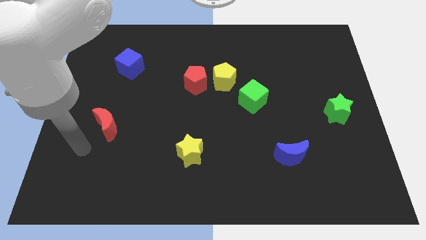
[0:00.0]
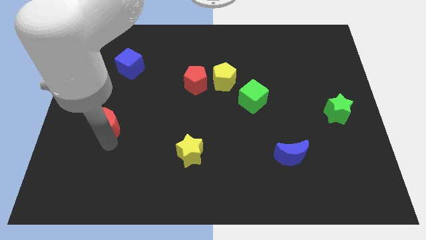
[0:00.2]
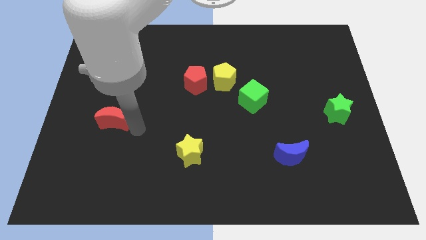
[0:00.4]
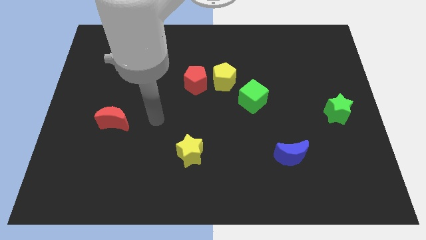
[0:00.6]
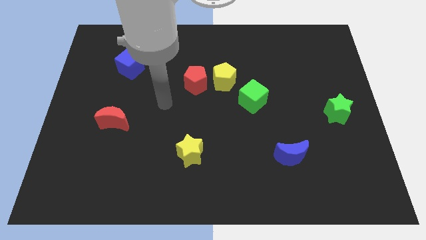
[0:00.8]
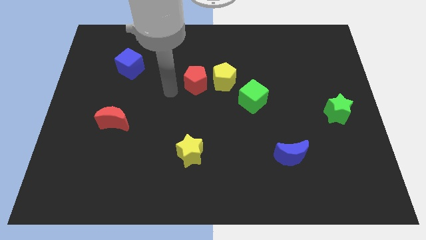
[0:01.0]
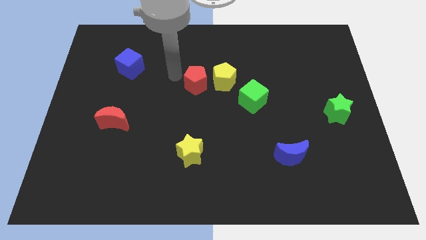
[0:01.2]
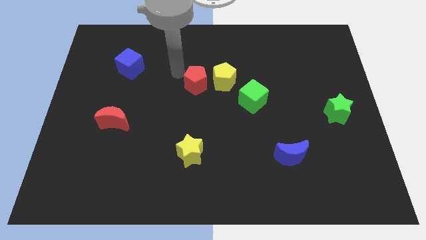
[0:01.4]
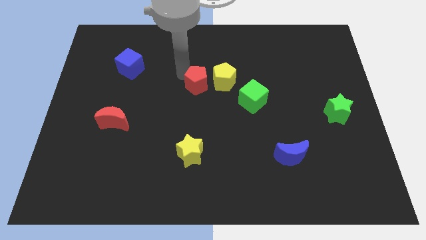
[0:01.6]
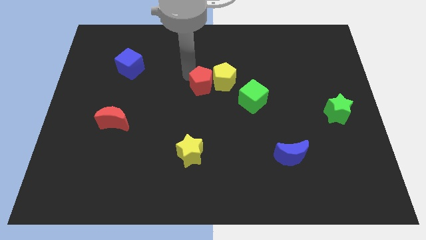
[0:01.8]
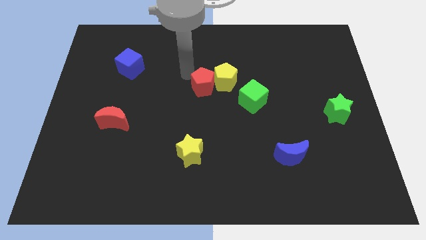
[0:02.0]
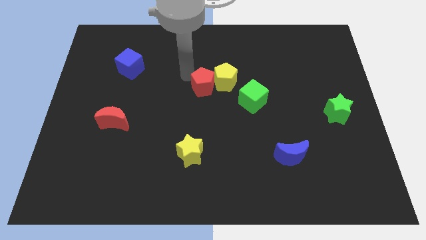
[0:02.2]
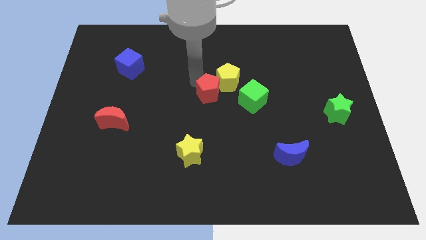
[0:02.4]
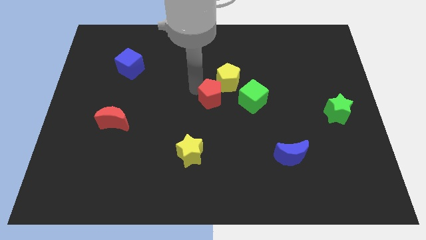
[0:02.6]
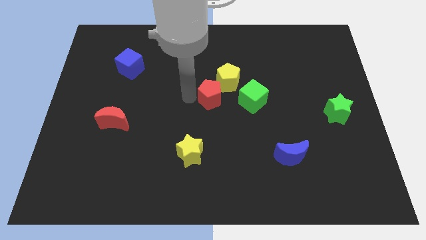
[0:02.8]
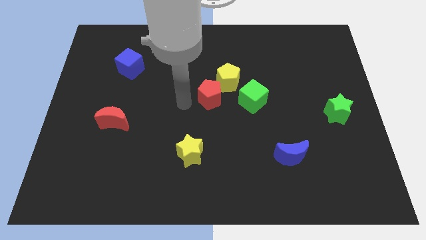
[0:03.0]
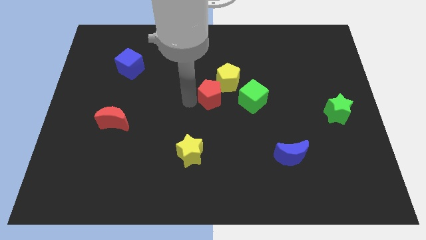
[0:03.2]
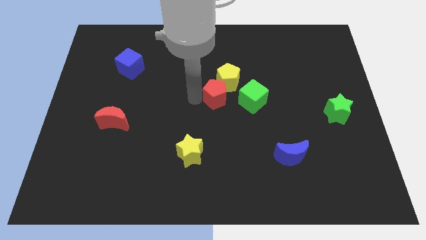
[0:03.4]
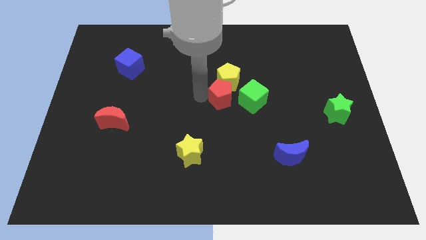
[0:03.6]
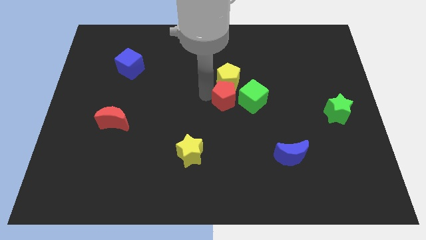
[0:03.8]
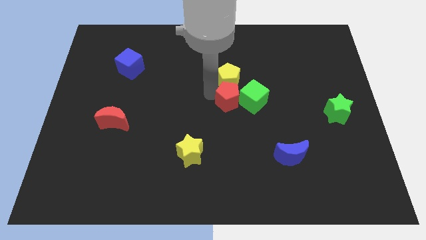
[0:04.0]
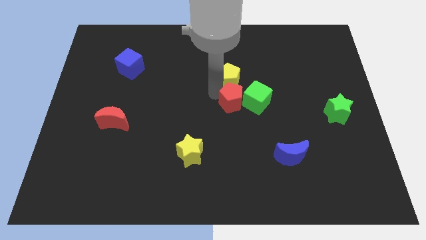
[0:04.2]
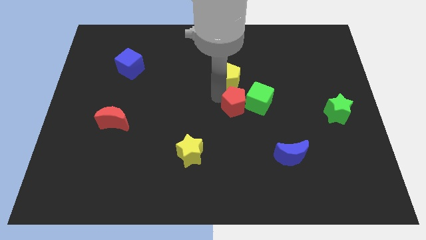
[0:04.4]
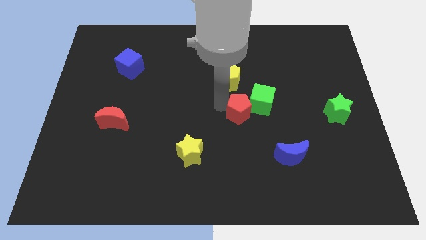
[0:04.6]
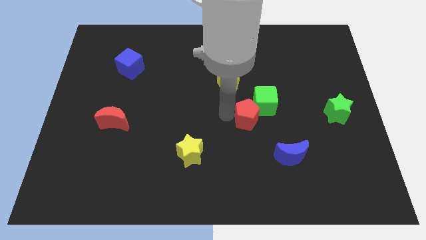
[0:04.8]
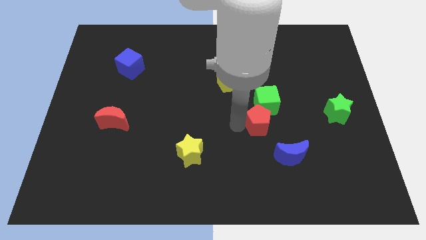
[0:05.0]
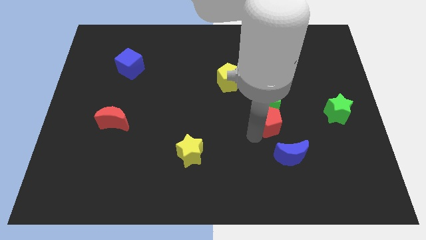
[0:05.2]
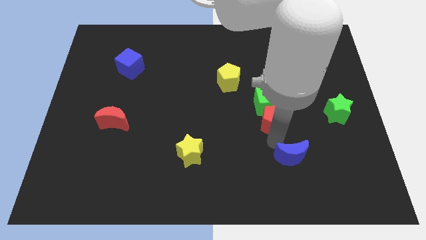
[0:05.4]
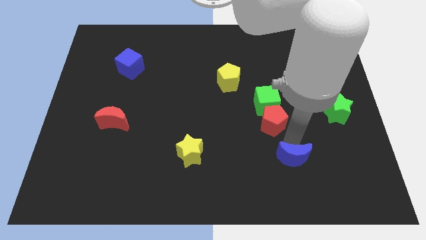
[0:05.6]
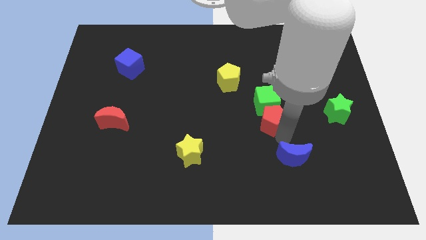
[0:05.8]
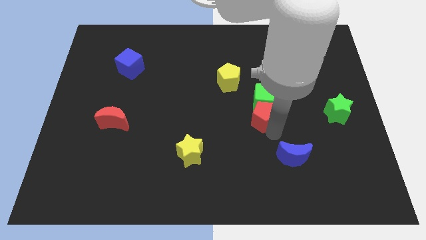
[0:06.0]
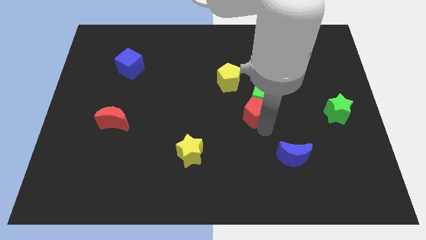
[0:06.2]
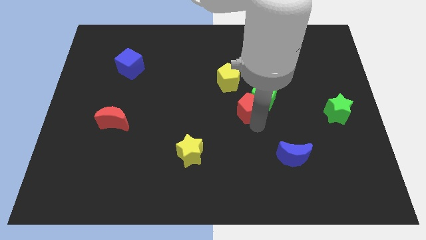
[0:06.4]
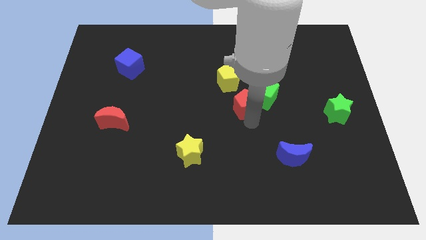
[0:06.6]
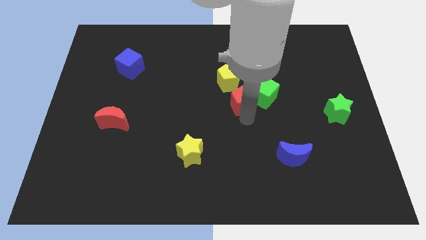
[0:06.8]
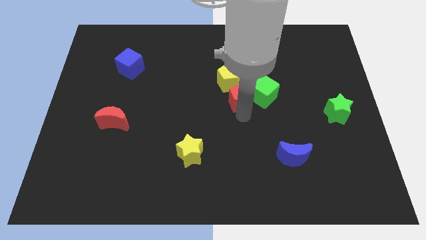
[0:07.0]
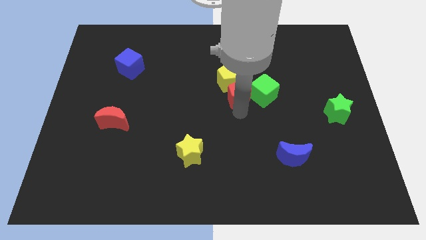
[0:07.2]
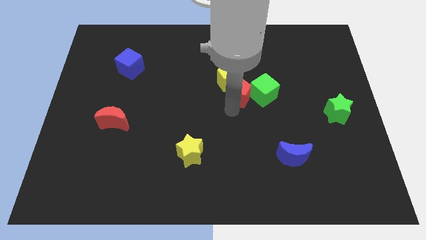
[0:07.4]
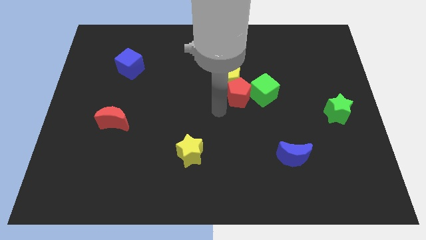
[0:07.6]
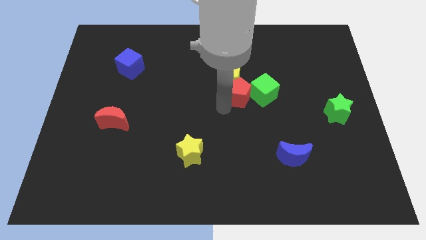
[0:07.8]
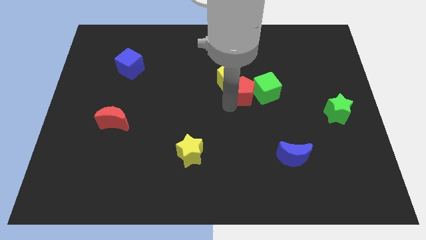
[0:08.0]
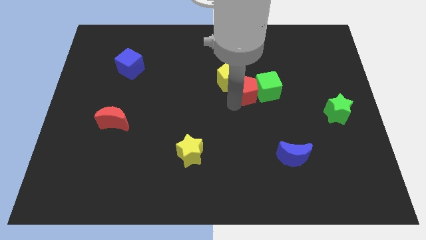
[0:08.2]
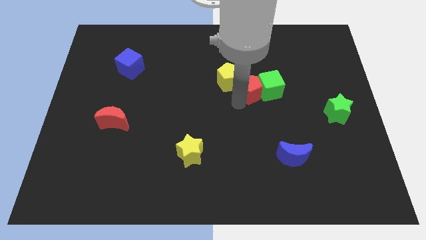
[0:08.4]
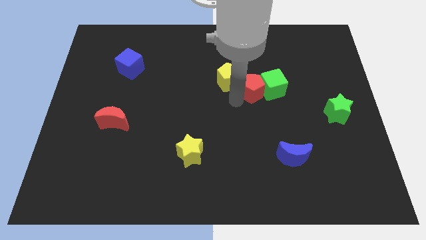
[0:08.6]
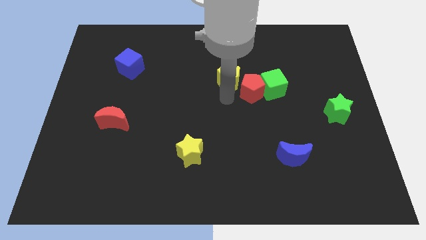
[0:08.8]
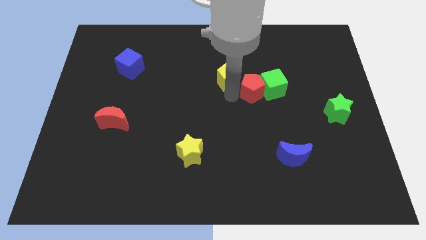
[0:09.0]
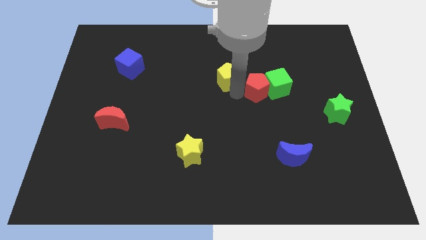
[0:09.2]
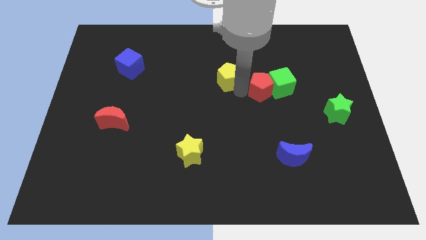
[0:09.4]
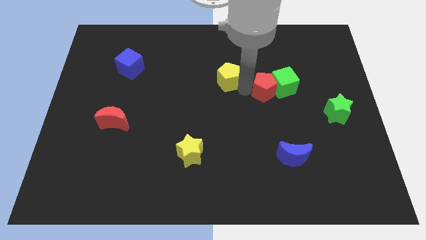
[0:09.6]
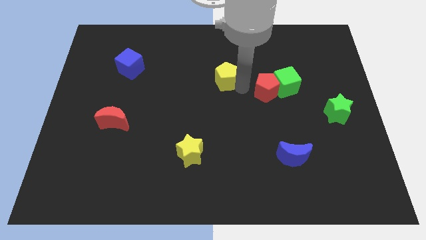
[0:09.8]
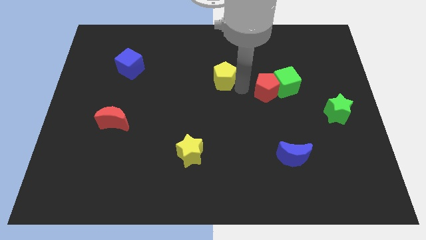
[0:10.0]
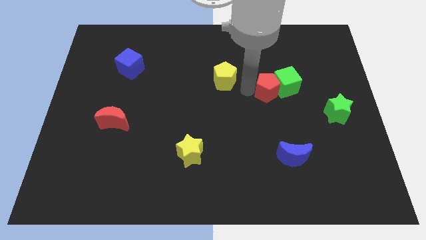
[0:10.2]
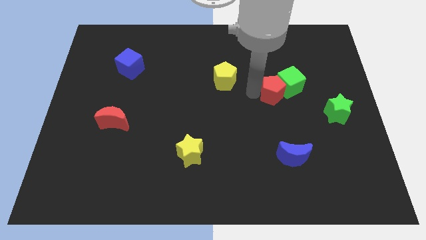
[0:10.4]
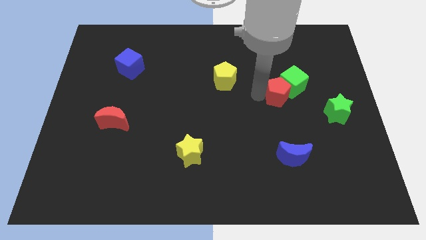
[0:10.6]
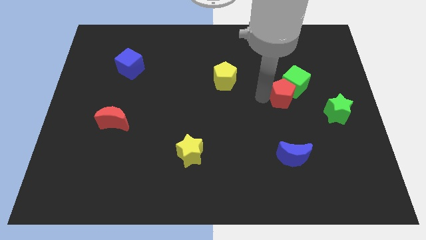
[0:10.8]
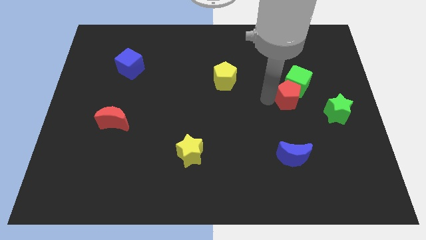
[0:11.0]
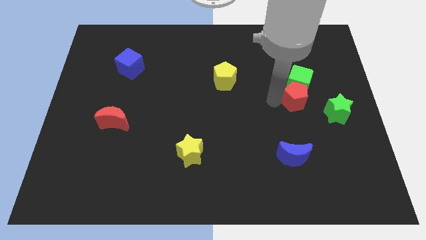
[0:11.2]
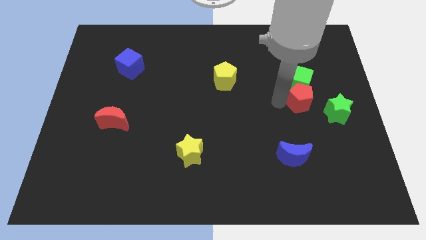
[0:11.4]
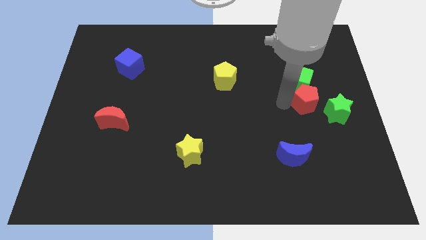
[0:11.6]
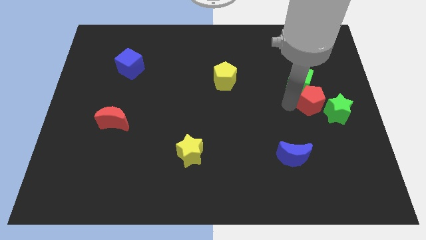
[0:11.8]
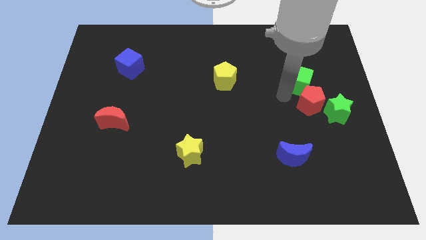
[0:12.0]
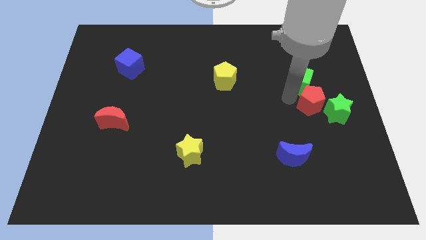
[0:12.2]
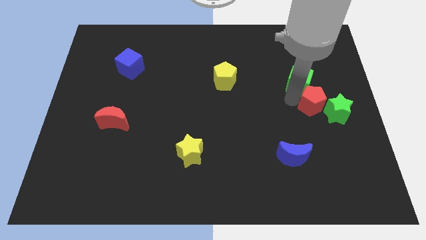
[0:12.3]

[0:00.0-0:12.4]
slide the red pentagon to the green star

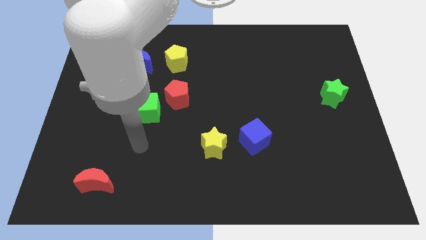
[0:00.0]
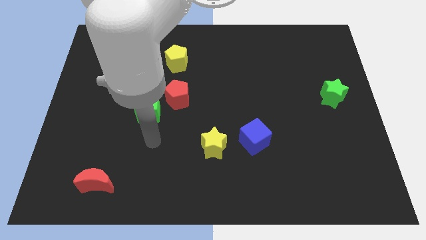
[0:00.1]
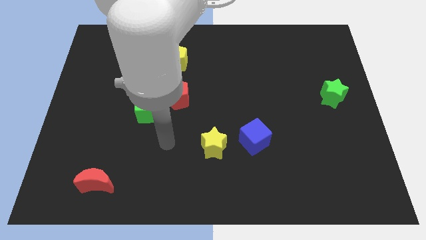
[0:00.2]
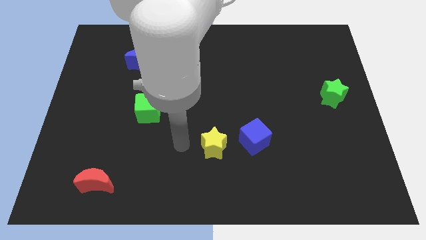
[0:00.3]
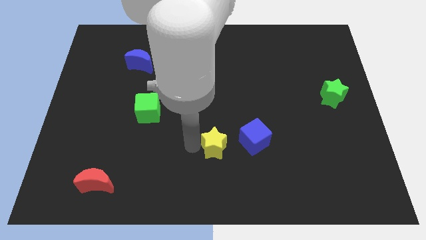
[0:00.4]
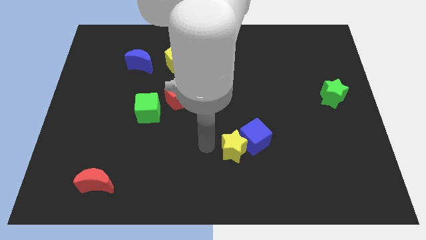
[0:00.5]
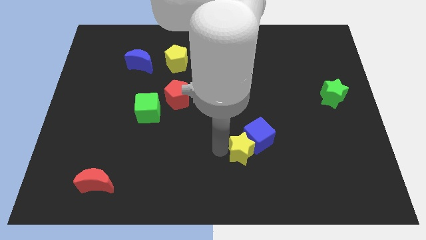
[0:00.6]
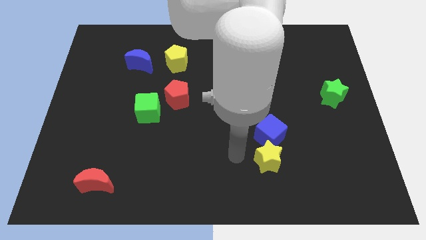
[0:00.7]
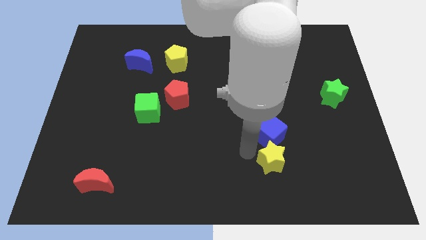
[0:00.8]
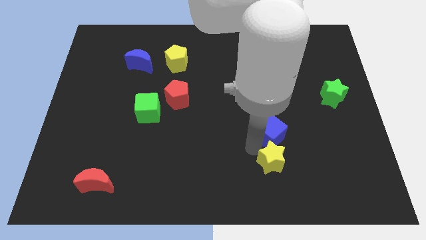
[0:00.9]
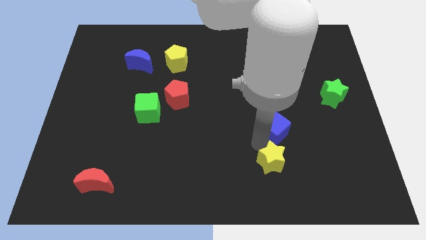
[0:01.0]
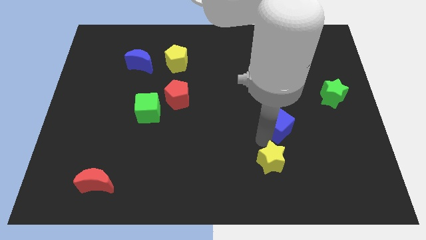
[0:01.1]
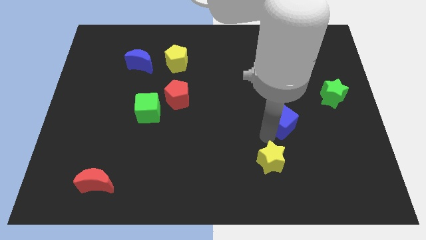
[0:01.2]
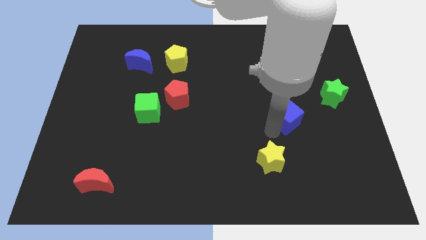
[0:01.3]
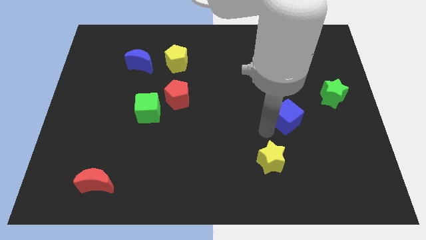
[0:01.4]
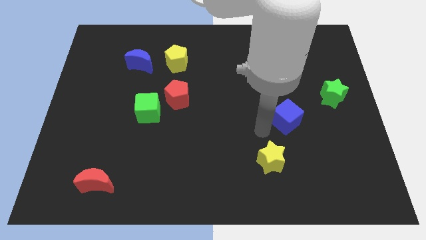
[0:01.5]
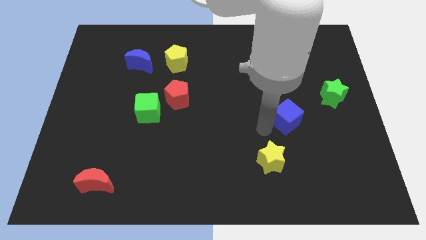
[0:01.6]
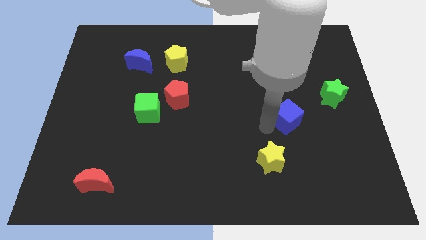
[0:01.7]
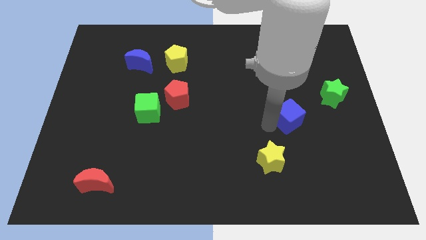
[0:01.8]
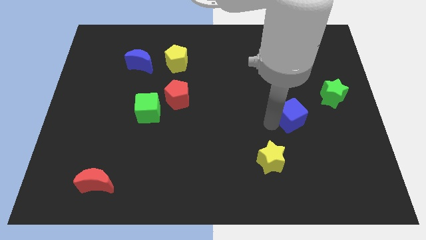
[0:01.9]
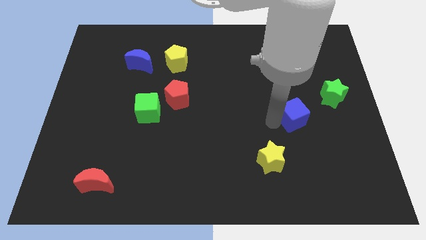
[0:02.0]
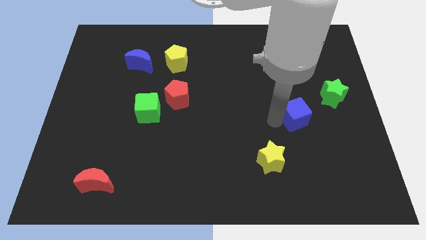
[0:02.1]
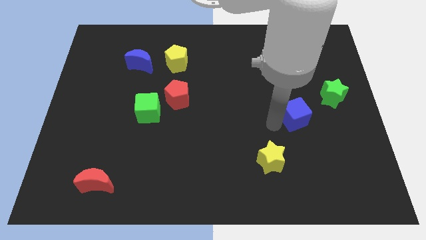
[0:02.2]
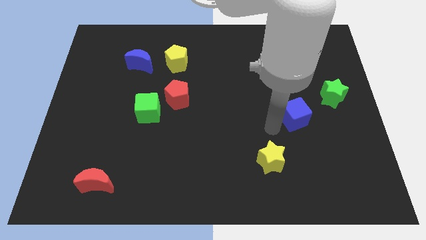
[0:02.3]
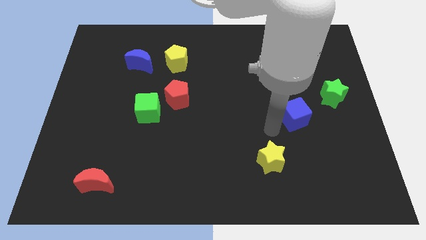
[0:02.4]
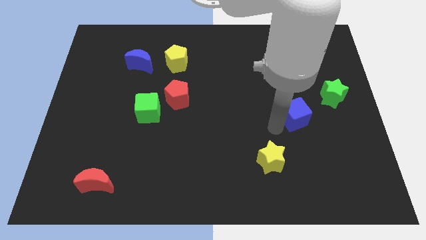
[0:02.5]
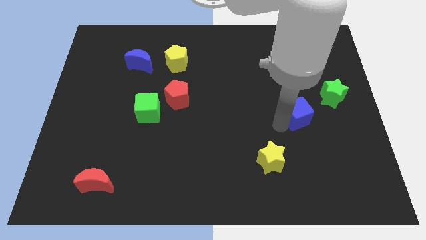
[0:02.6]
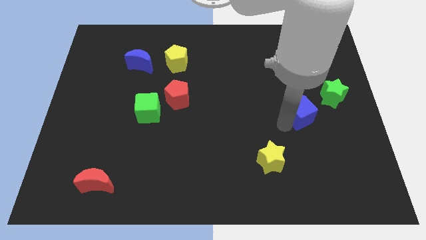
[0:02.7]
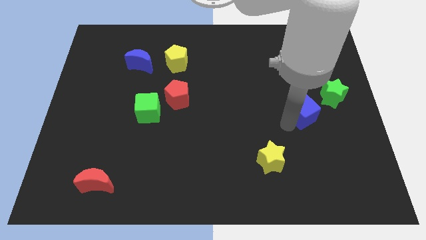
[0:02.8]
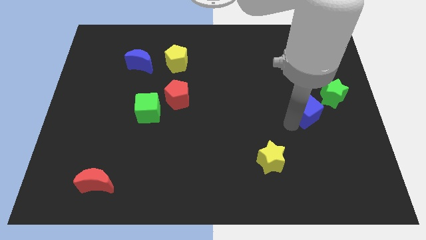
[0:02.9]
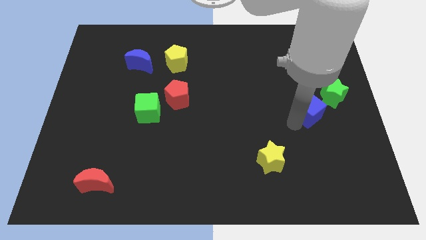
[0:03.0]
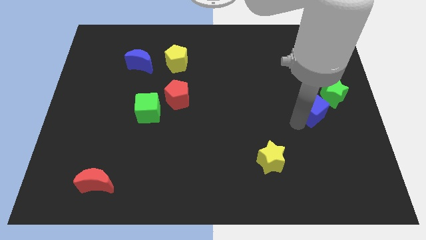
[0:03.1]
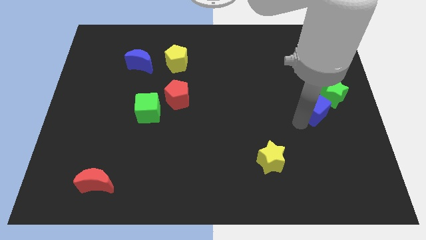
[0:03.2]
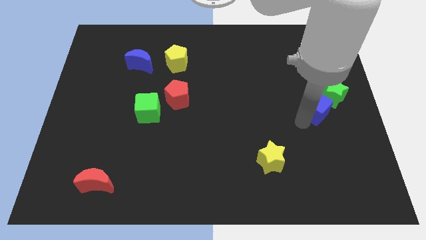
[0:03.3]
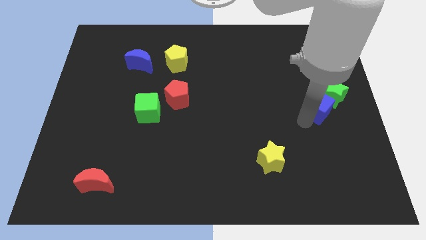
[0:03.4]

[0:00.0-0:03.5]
put the blue cube to the green star
